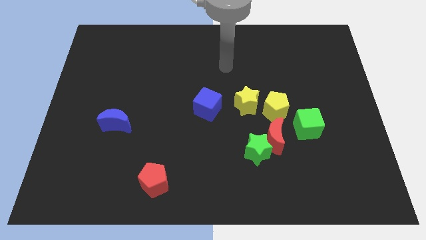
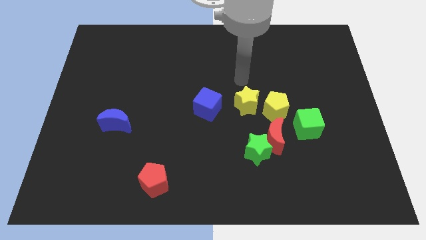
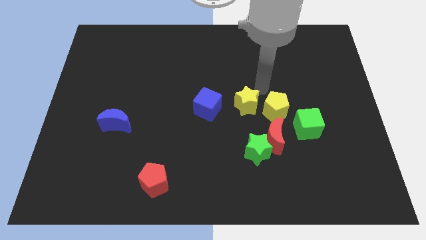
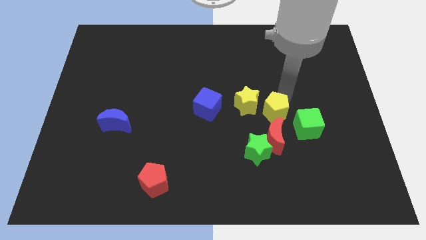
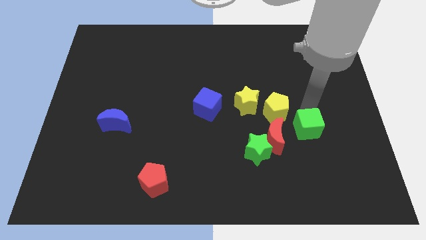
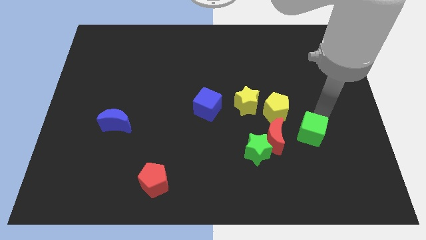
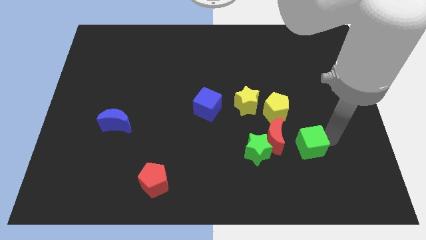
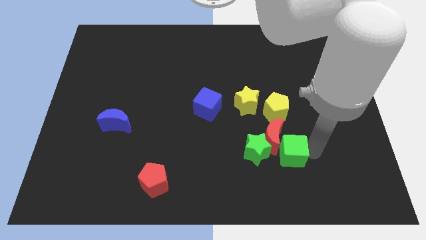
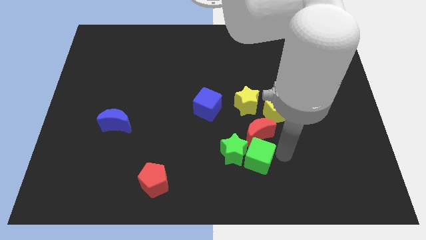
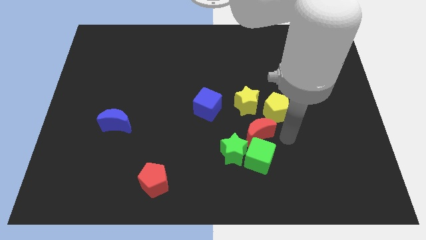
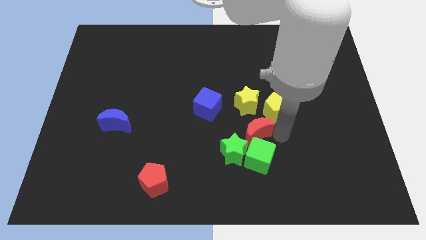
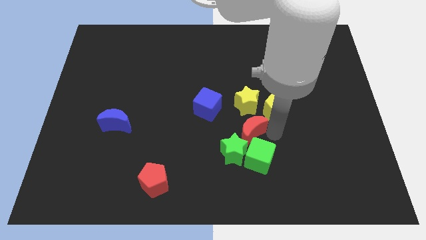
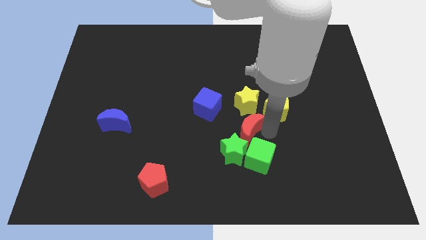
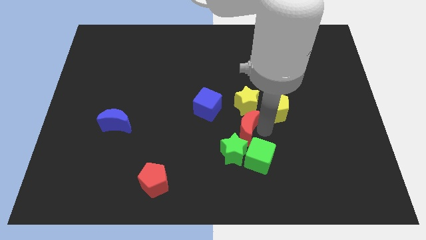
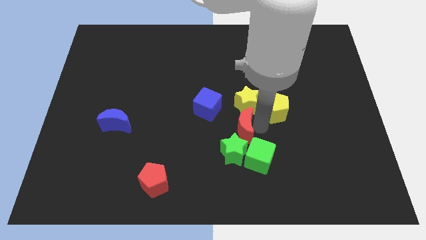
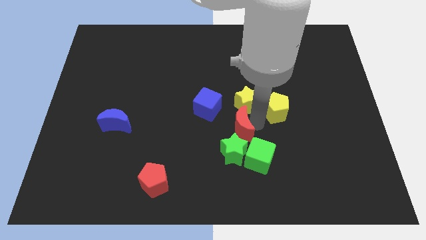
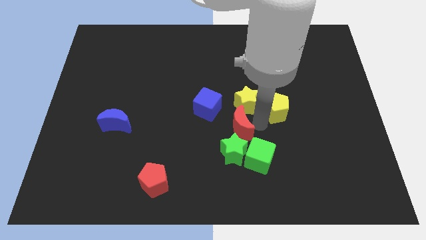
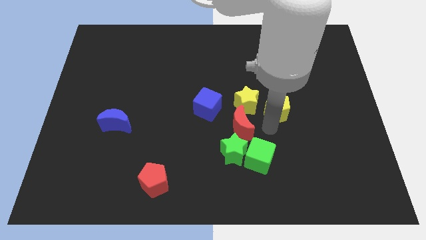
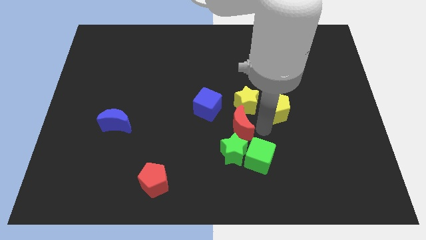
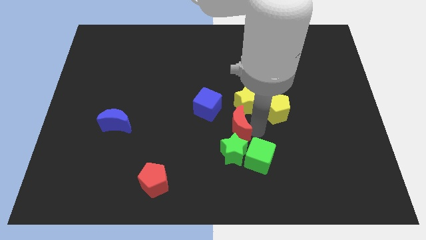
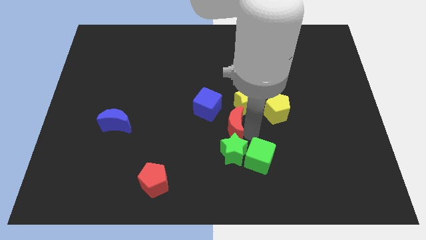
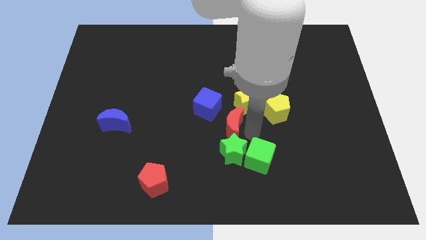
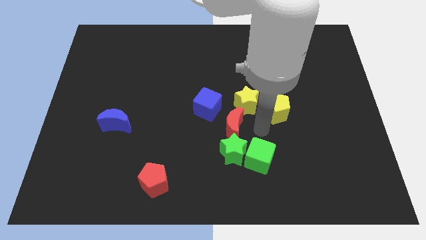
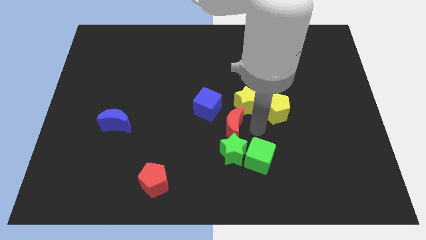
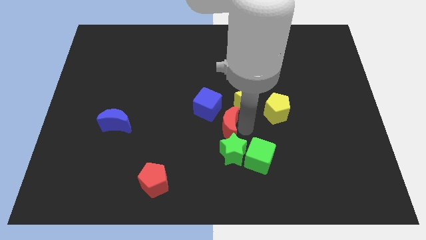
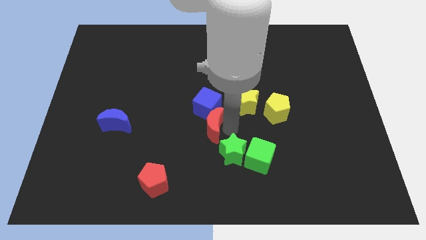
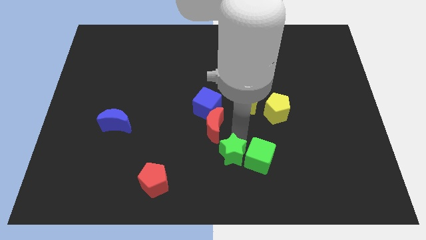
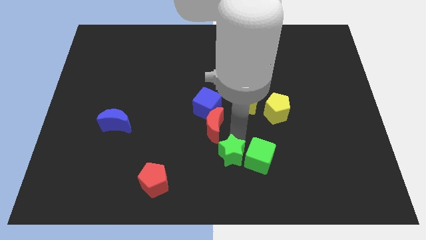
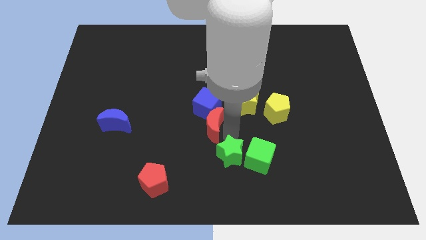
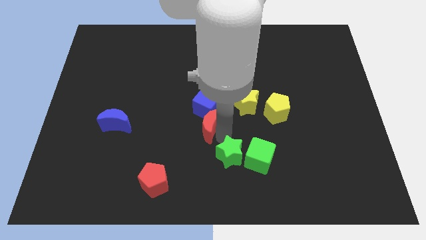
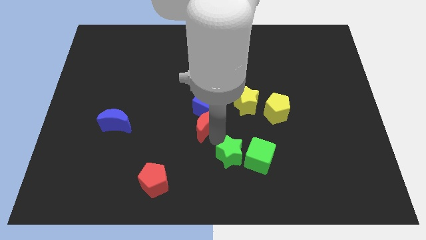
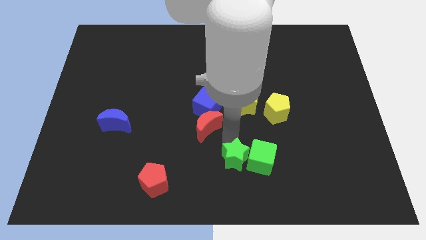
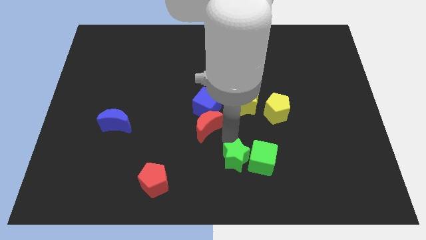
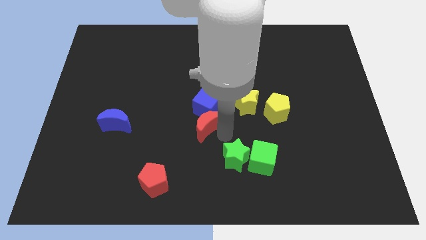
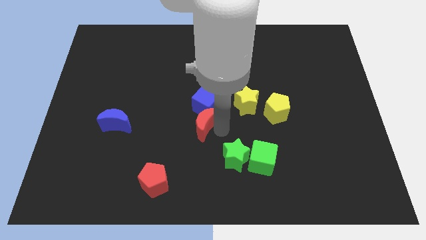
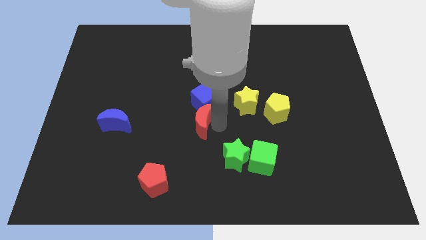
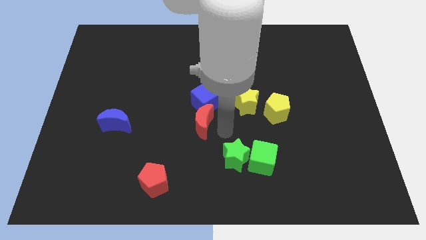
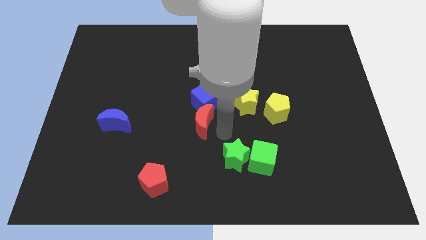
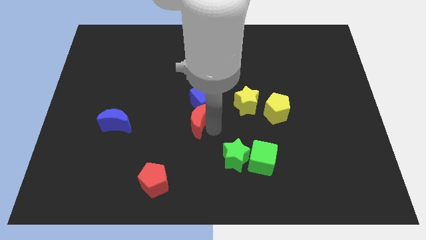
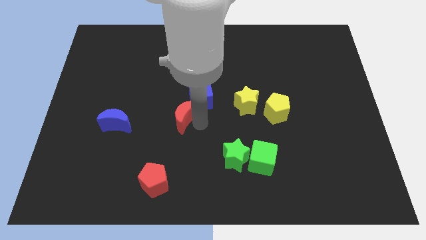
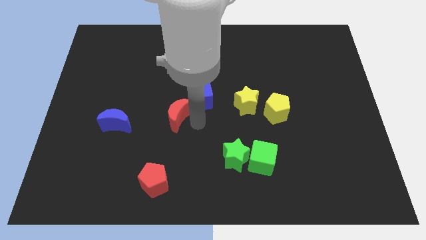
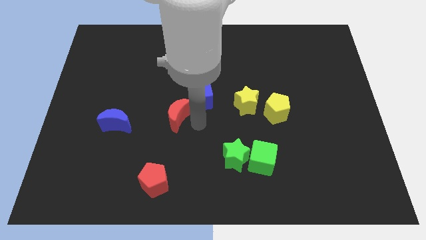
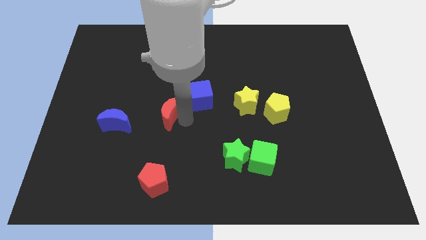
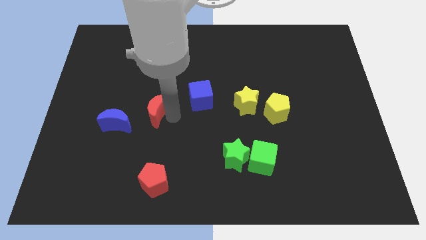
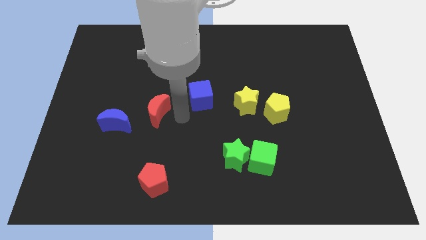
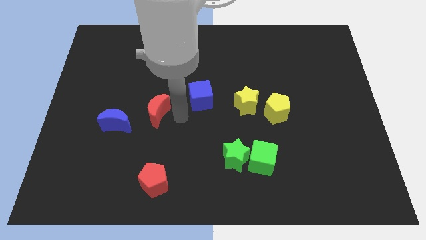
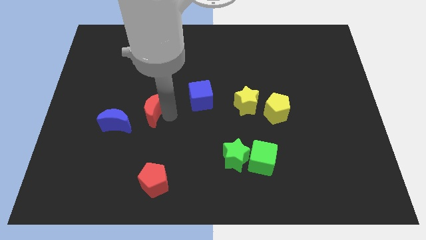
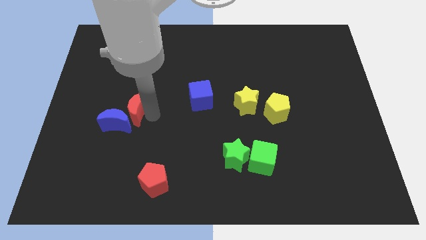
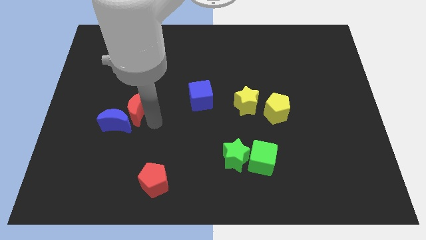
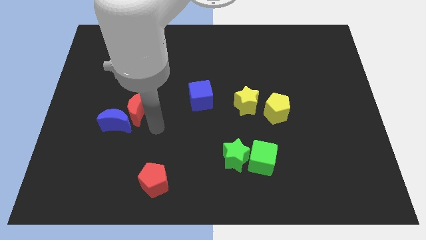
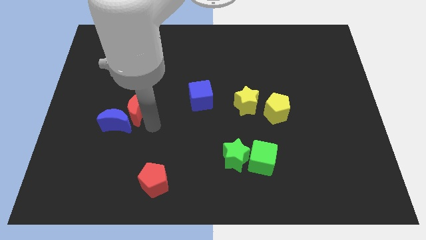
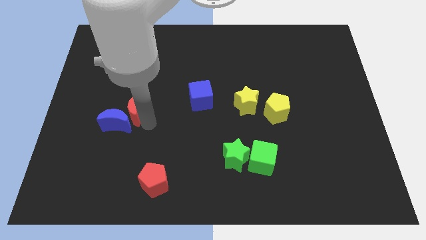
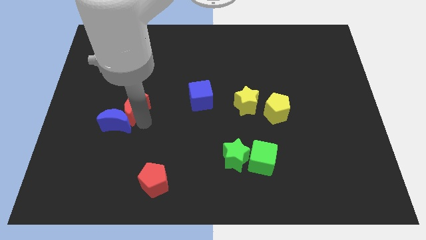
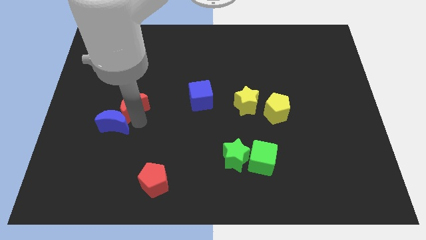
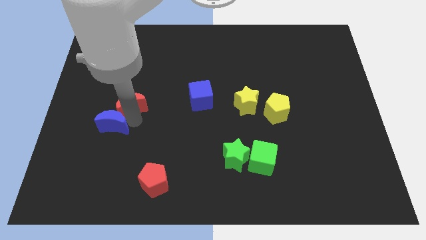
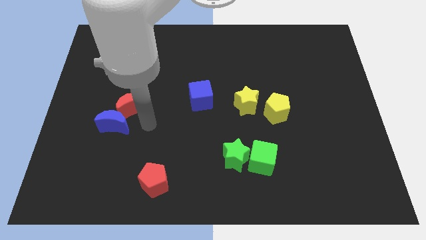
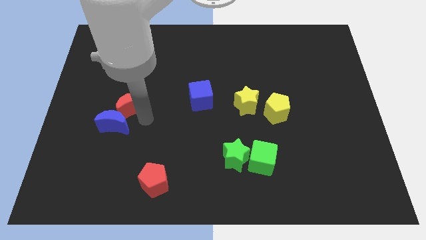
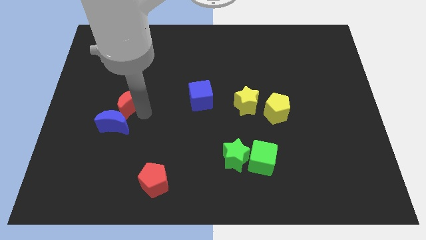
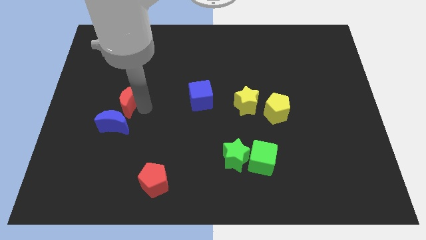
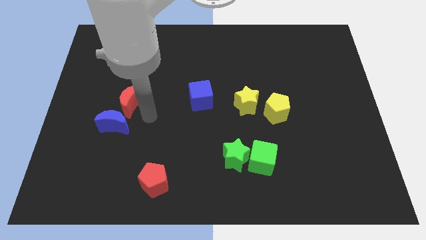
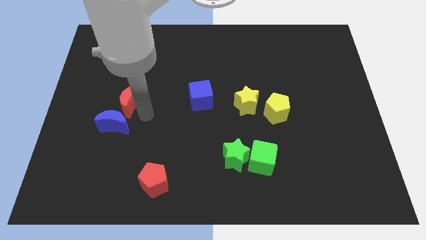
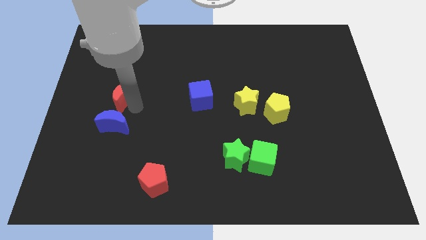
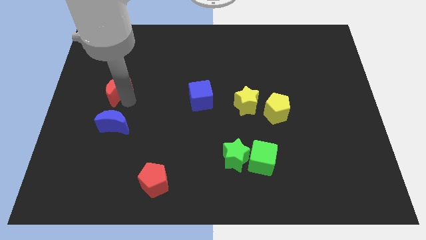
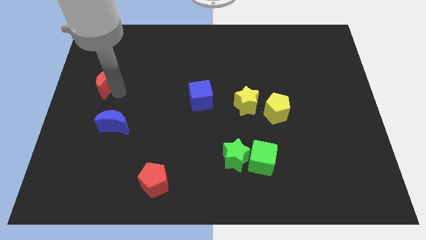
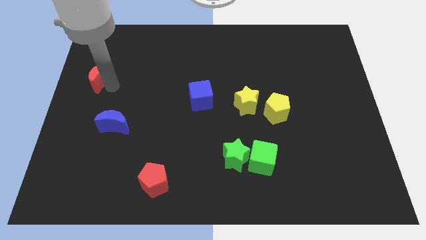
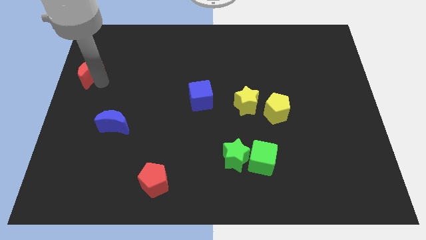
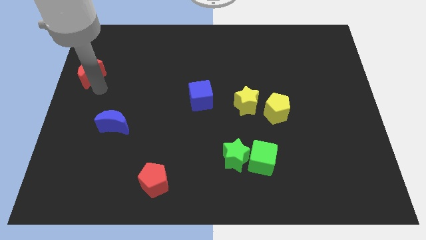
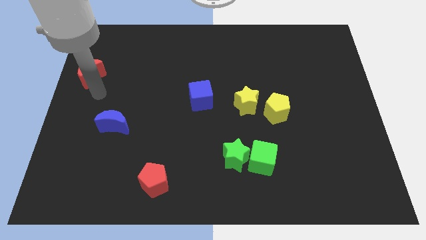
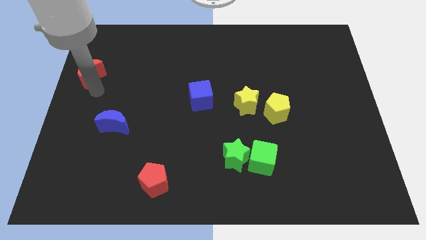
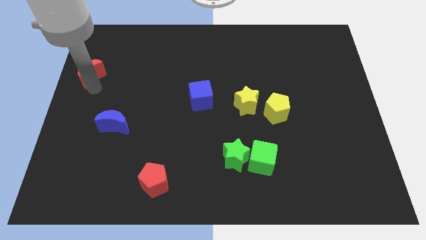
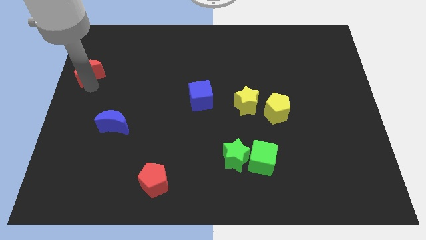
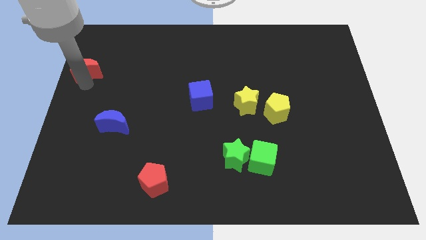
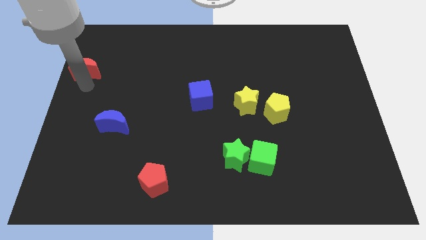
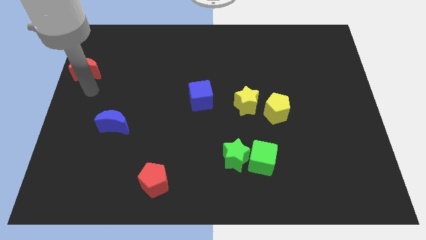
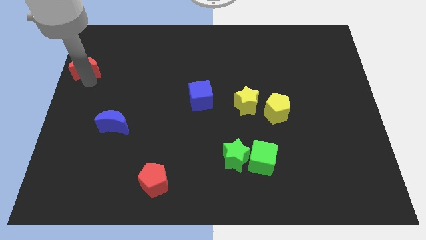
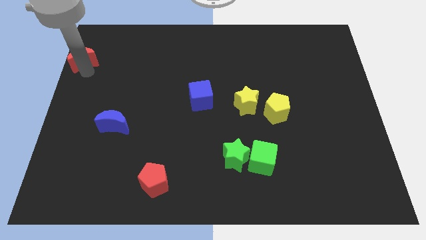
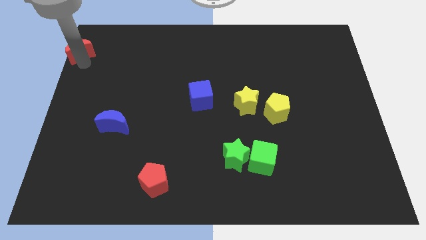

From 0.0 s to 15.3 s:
put the red moon to the upper left corner
